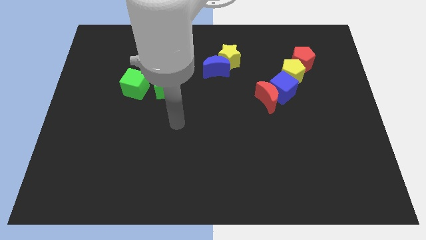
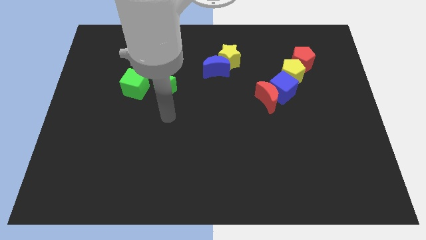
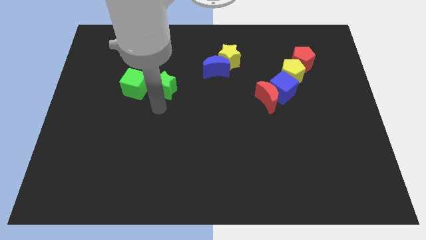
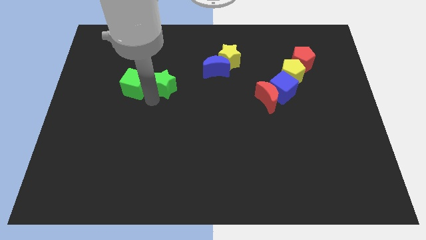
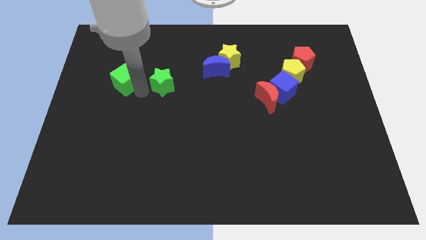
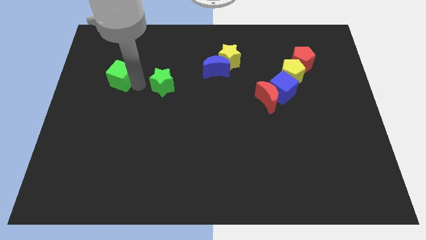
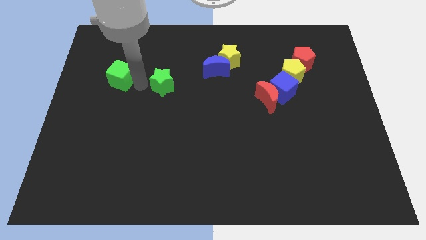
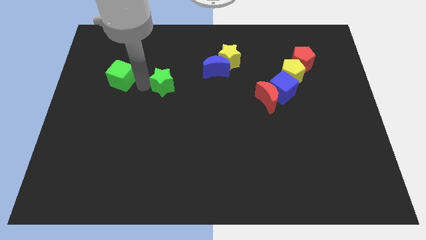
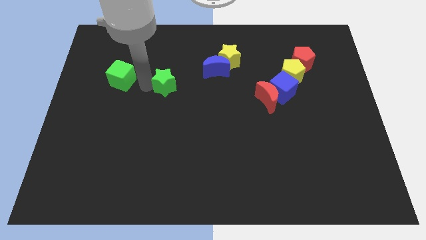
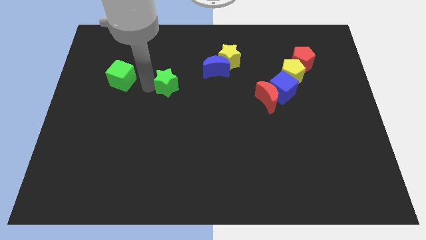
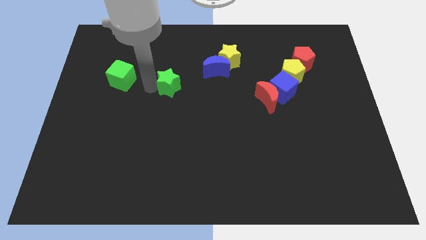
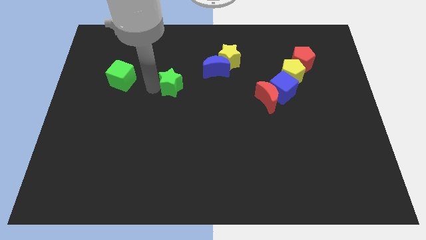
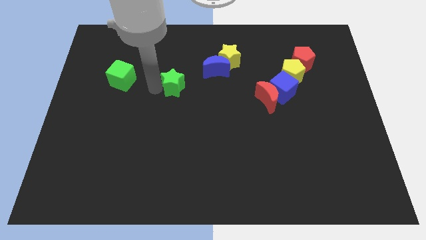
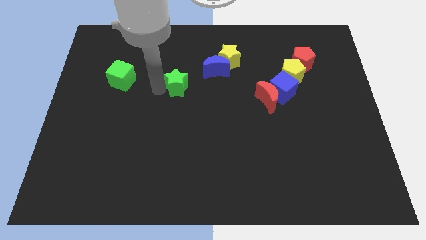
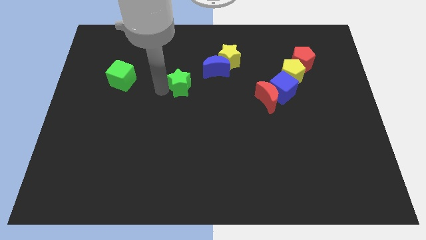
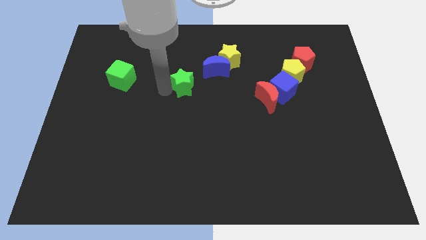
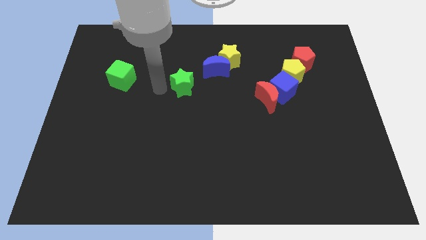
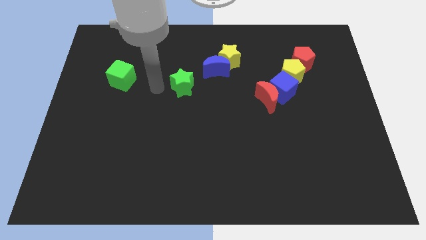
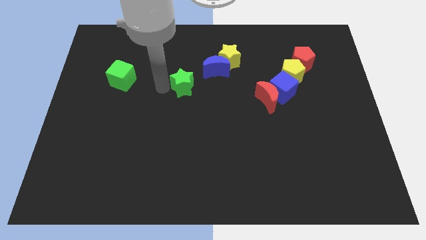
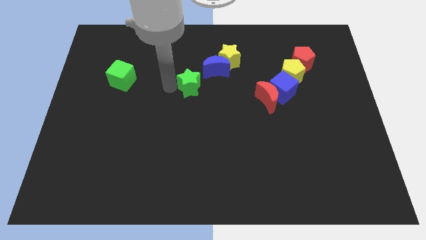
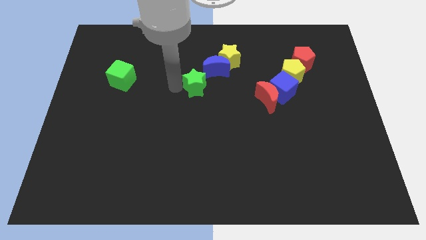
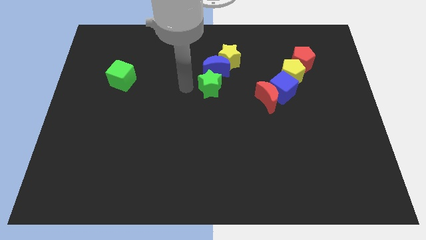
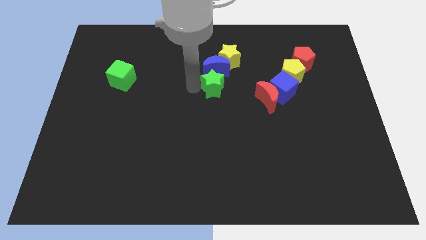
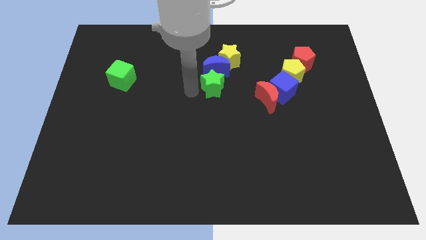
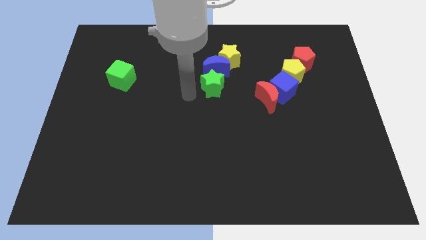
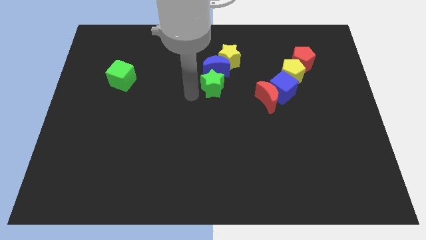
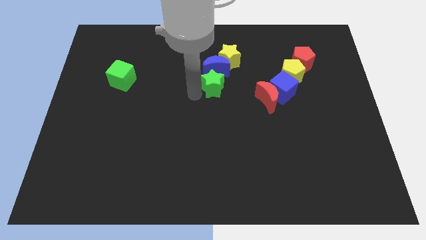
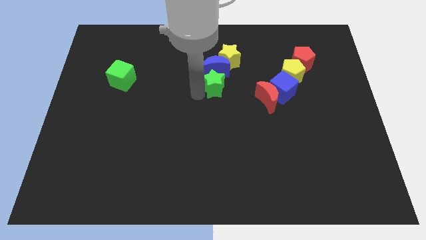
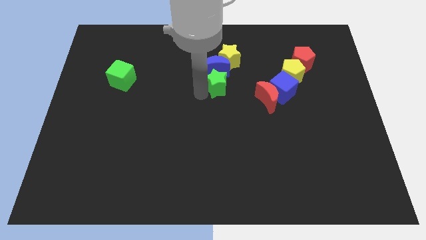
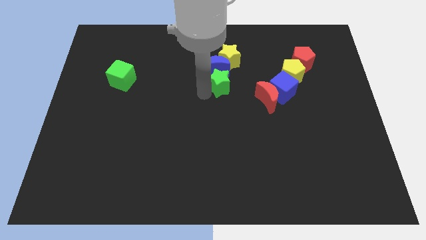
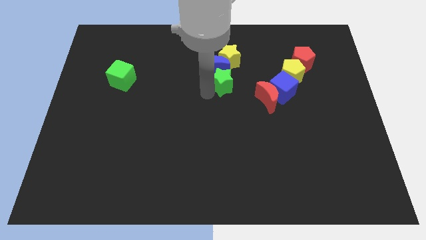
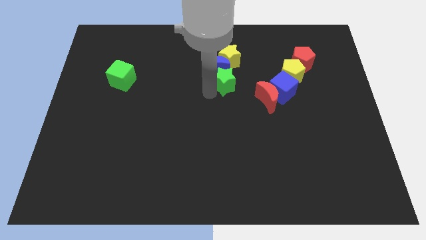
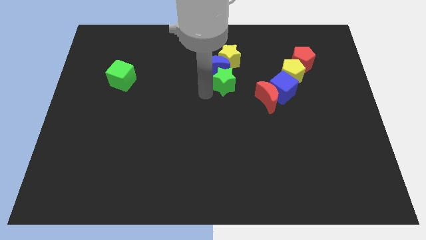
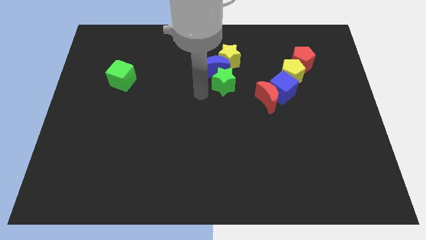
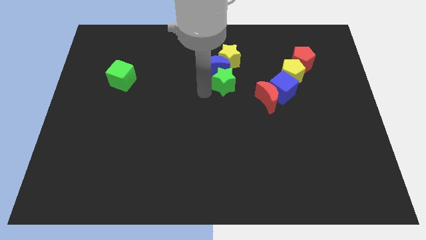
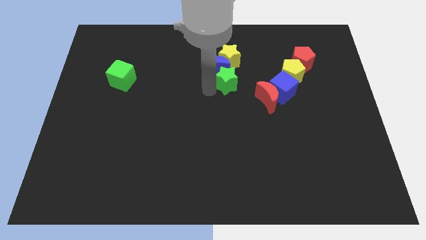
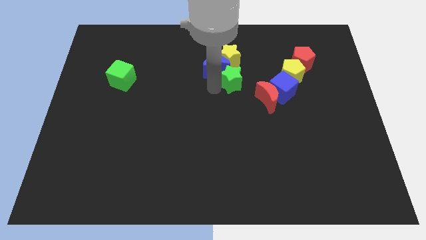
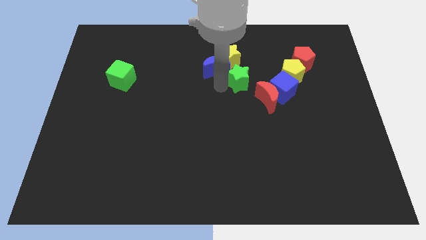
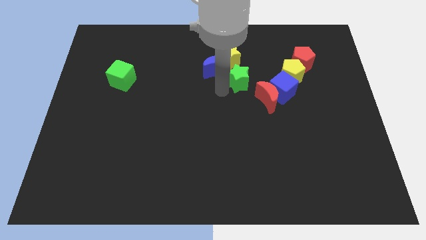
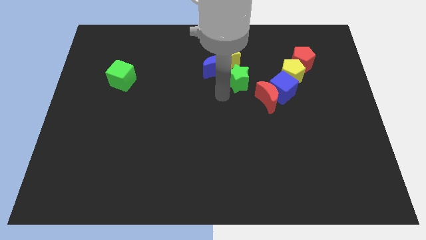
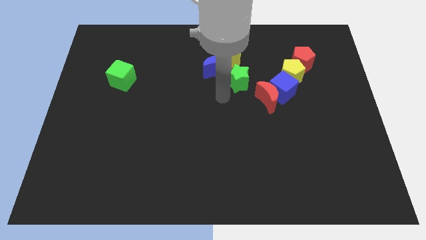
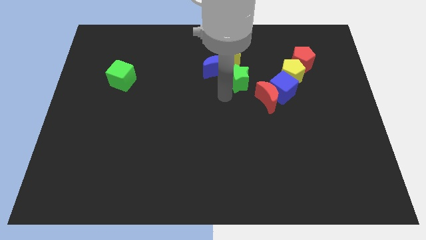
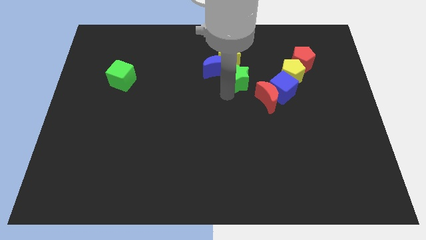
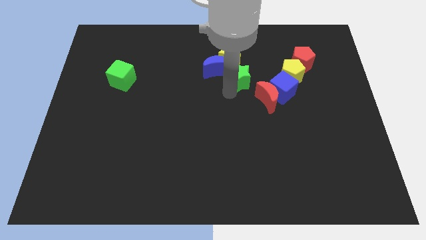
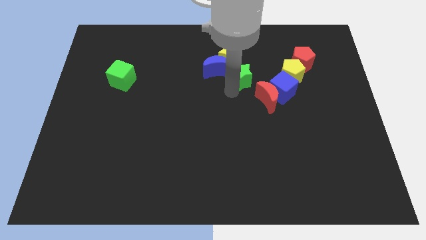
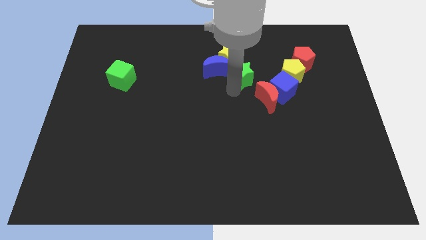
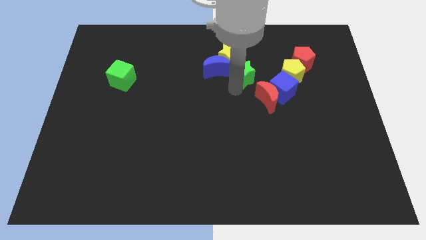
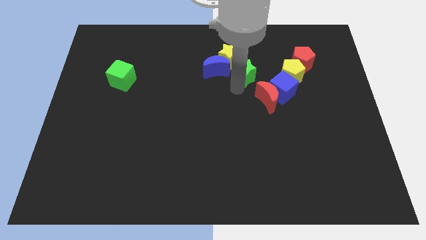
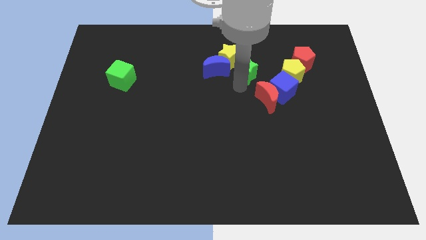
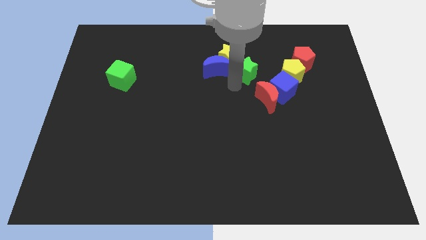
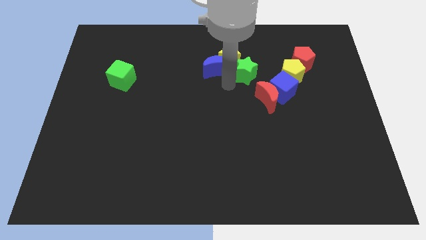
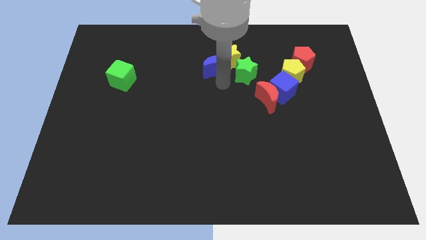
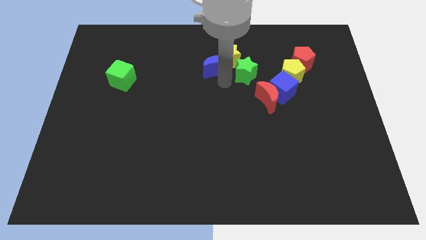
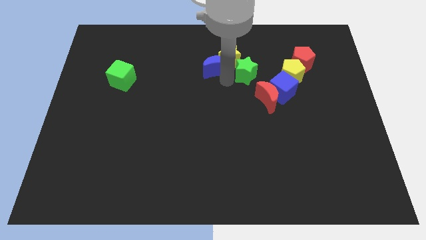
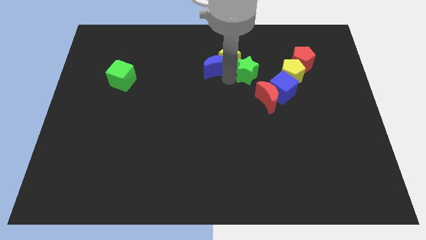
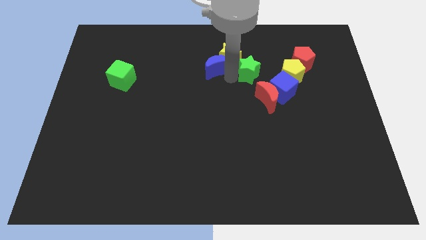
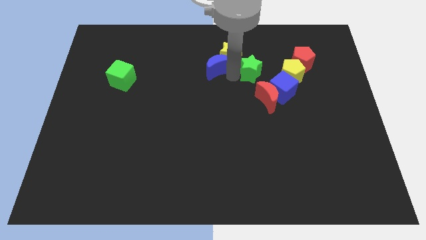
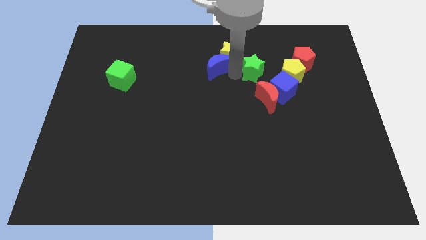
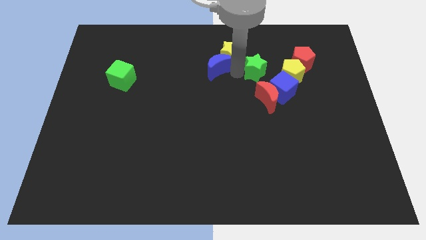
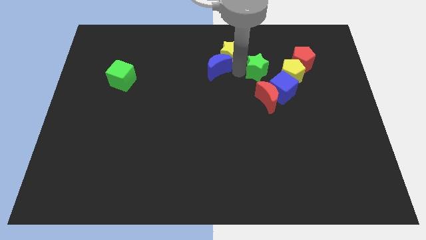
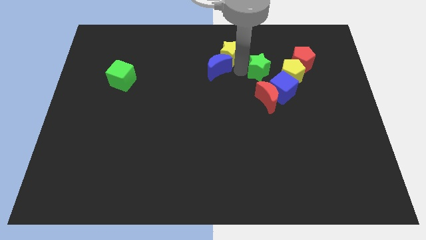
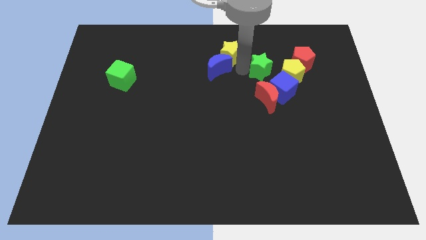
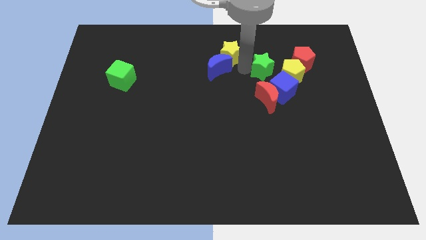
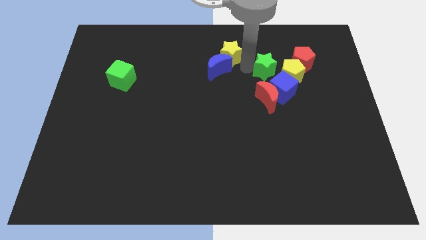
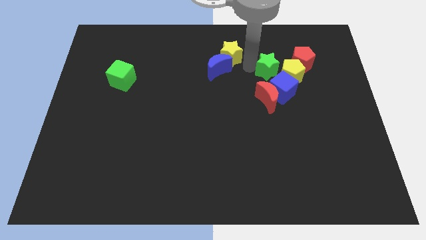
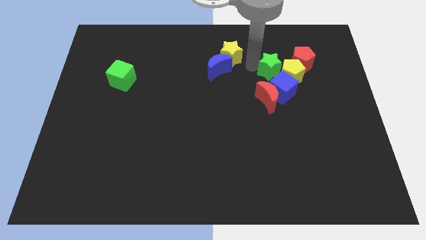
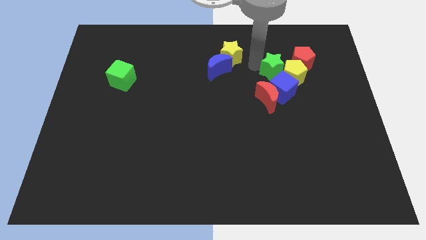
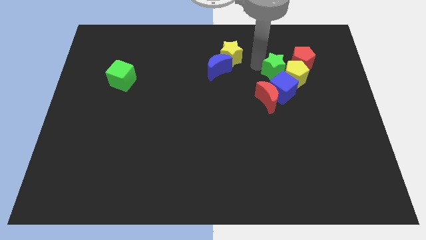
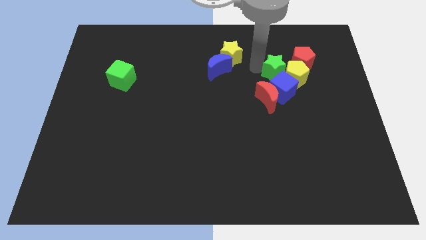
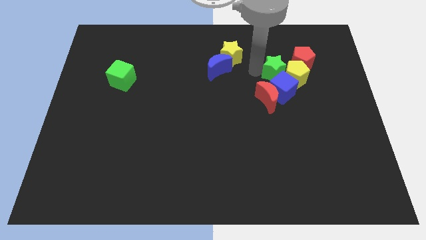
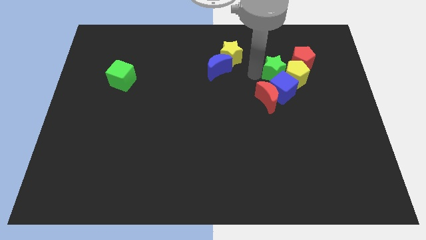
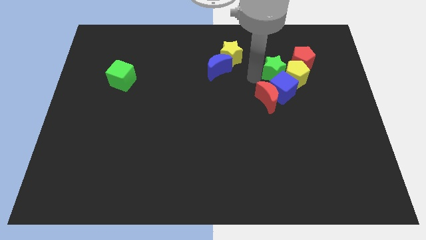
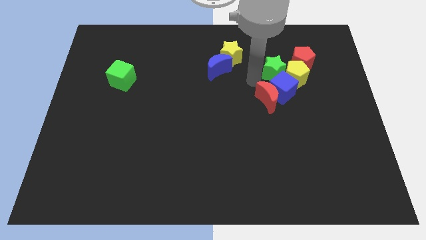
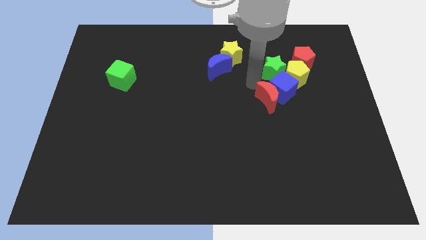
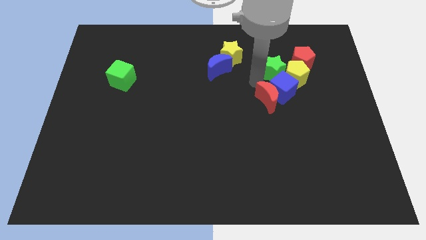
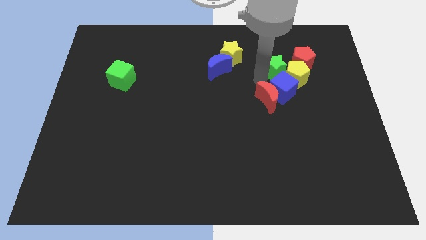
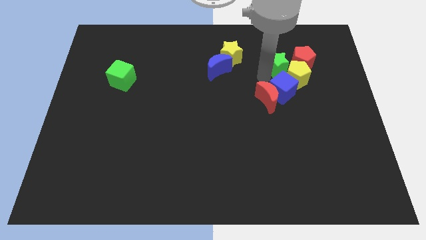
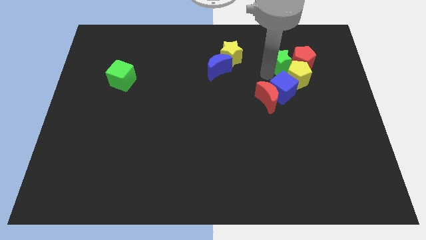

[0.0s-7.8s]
put the green star close to the red pentagon

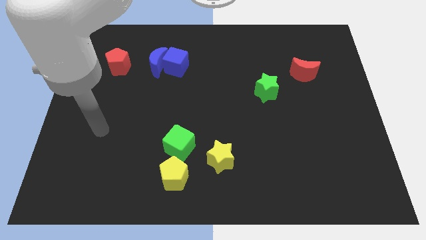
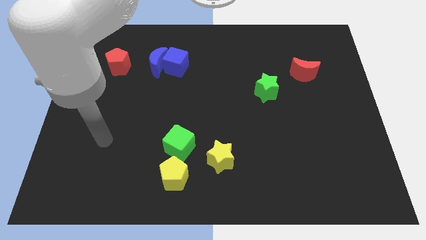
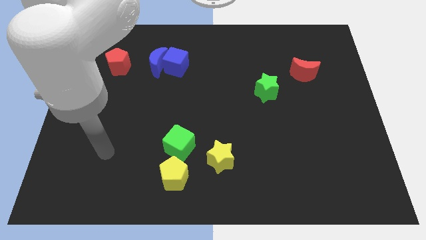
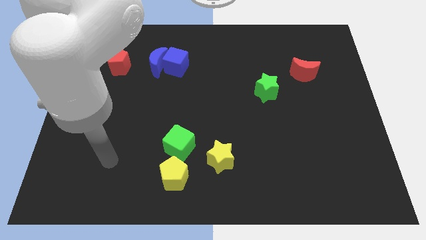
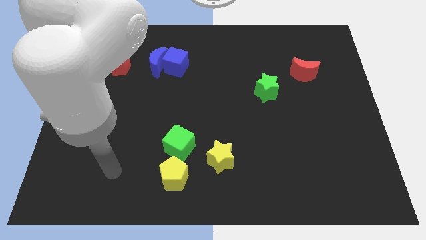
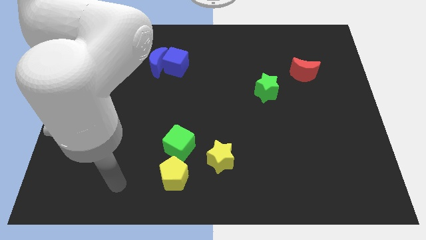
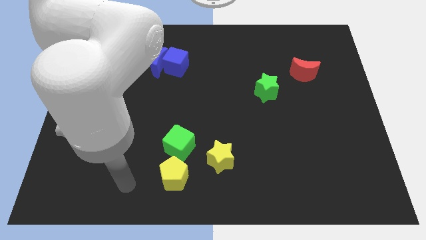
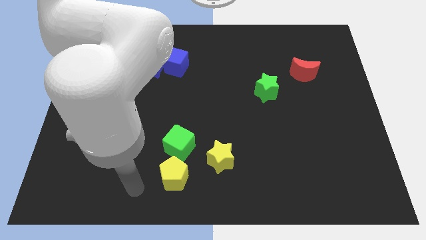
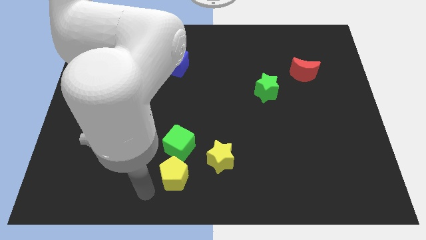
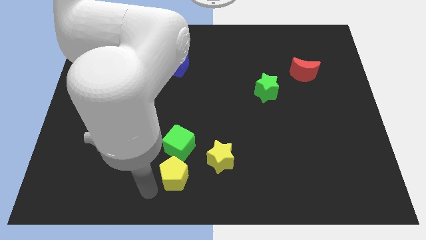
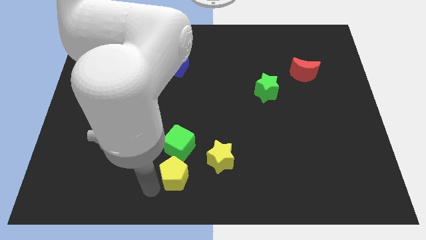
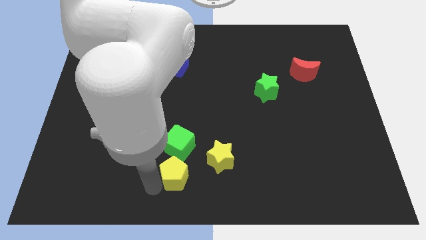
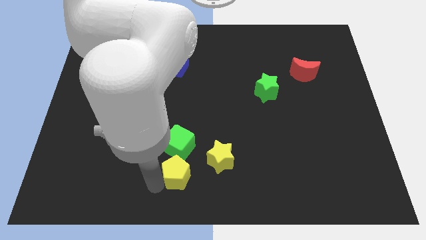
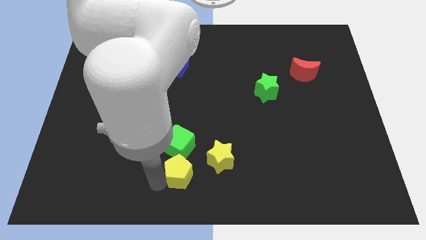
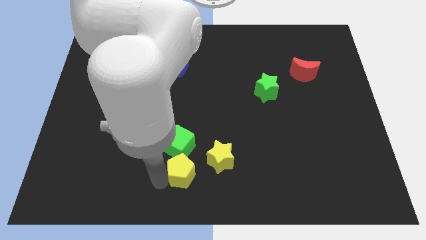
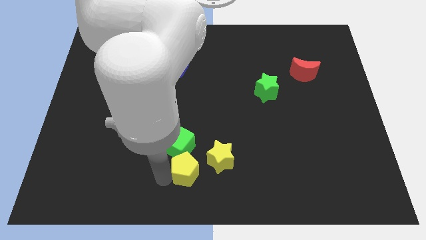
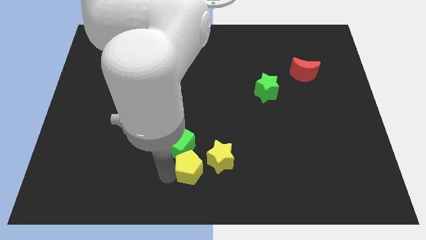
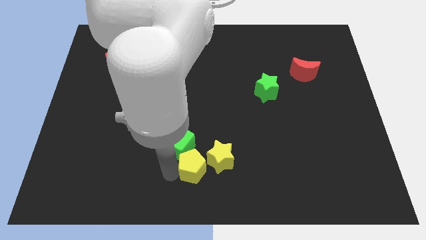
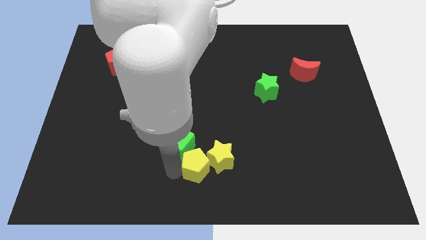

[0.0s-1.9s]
move the yellow pentagon close to the yellow star
